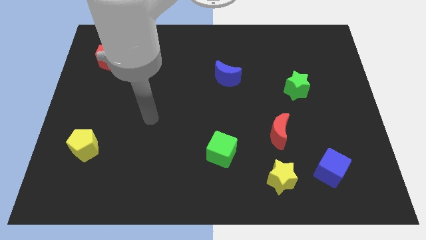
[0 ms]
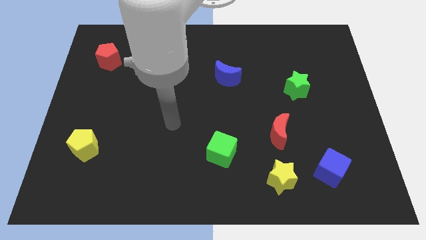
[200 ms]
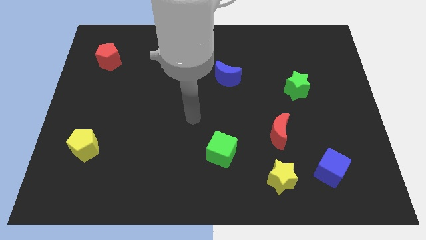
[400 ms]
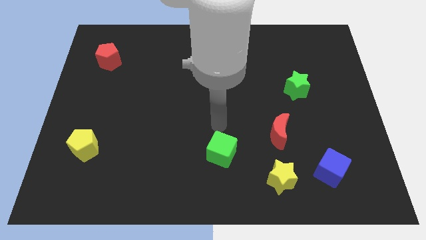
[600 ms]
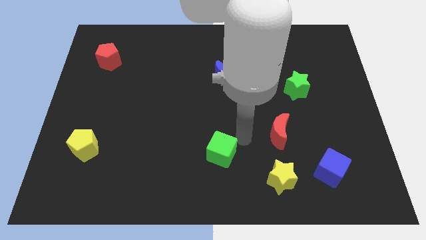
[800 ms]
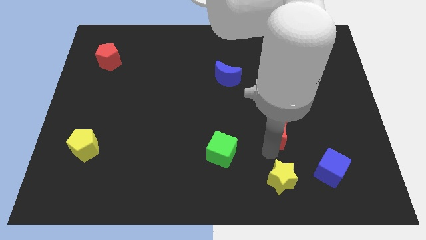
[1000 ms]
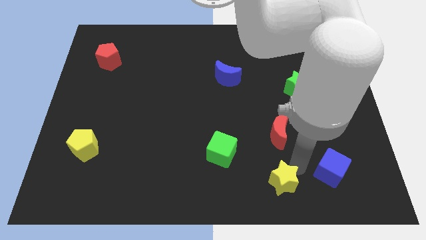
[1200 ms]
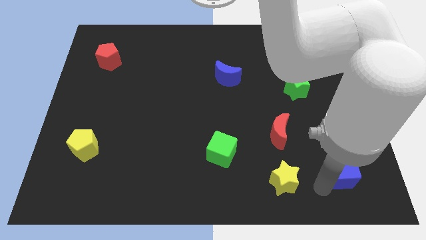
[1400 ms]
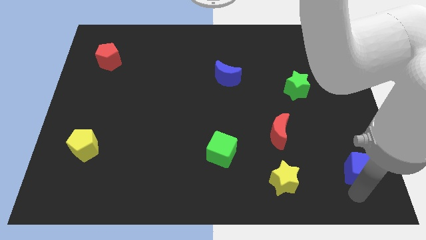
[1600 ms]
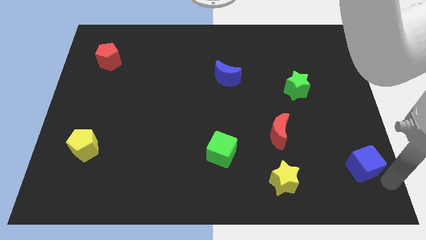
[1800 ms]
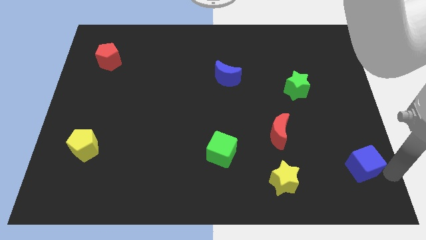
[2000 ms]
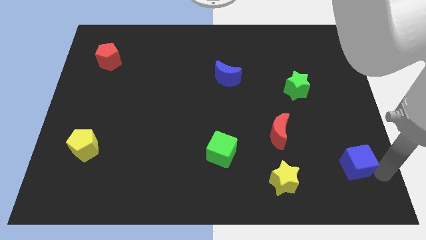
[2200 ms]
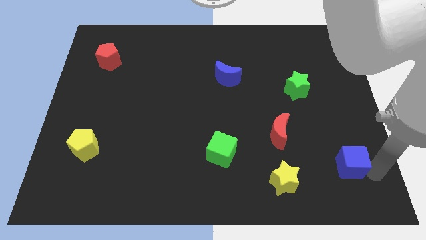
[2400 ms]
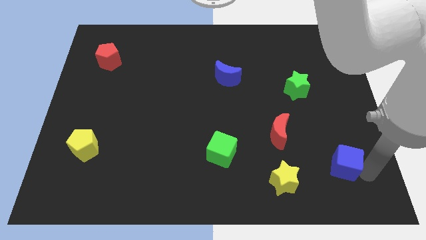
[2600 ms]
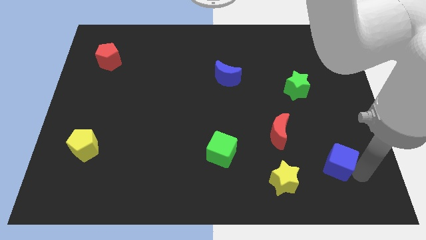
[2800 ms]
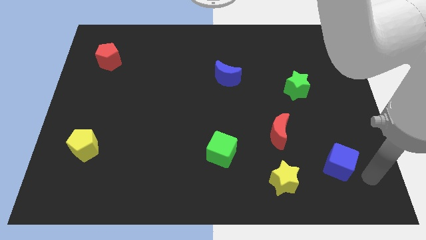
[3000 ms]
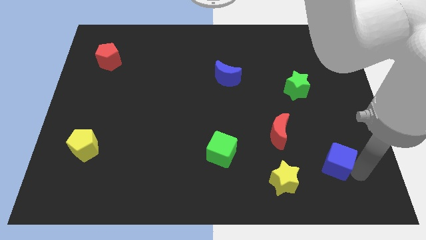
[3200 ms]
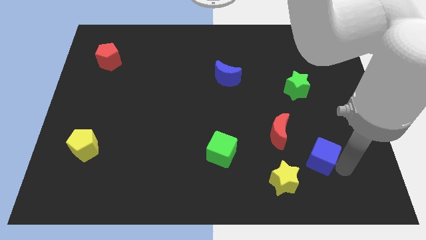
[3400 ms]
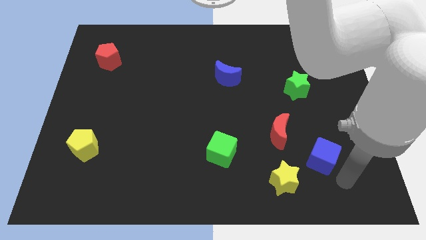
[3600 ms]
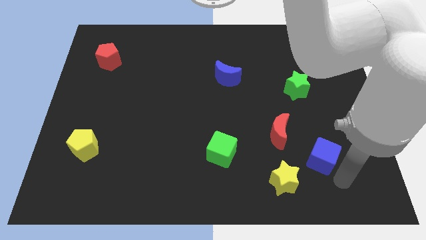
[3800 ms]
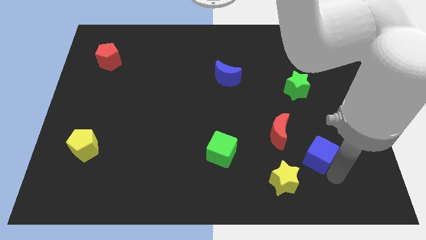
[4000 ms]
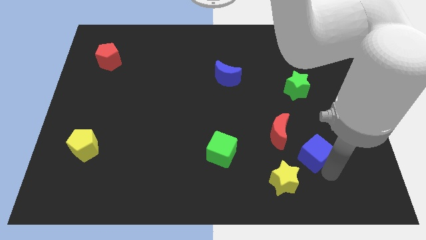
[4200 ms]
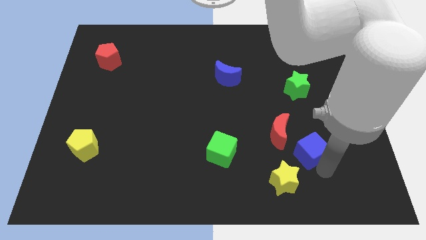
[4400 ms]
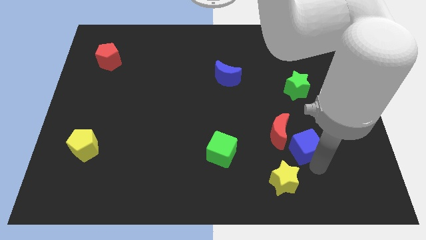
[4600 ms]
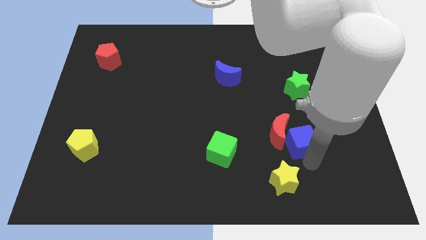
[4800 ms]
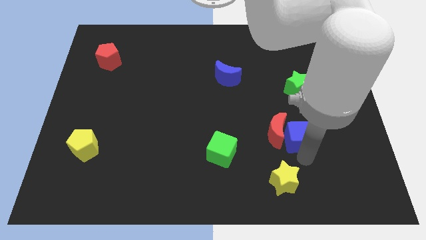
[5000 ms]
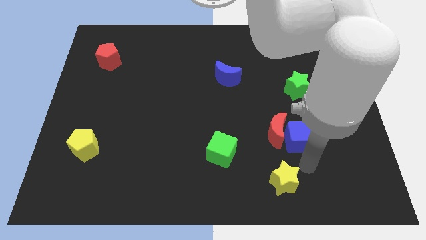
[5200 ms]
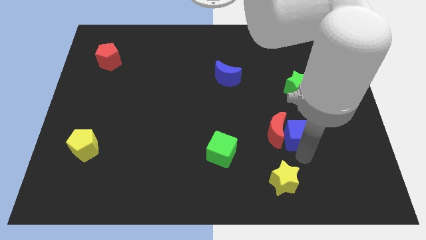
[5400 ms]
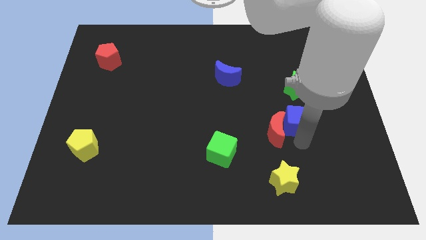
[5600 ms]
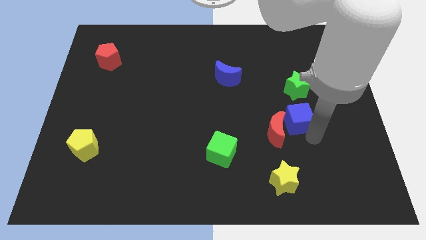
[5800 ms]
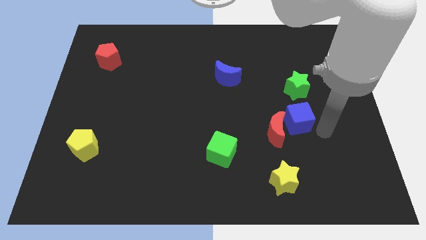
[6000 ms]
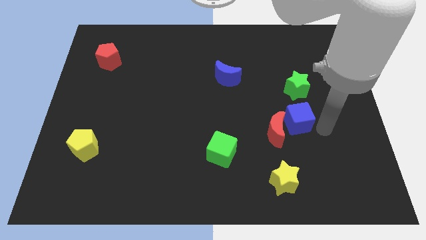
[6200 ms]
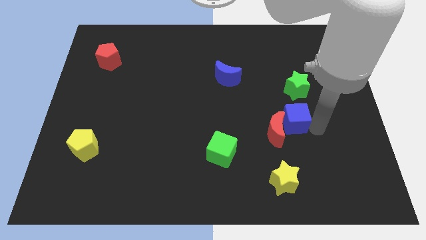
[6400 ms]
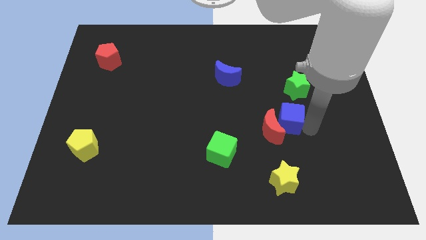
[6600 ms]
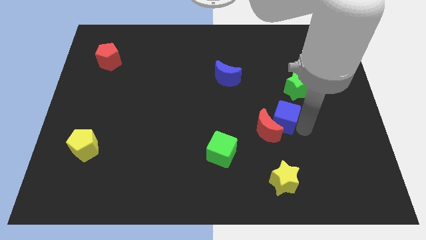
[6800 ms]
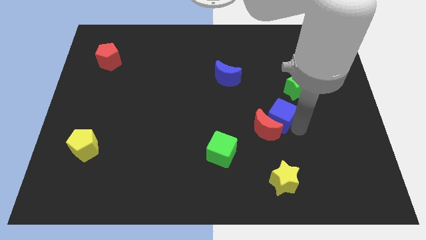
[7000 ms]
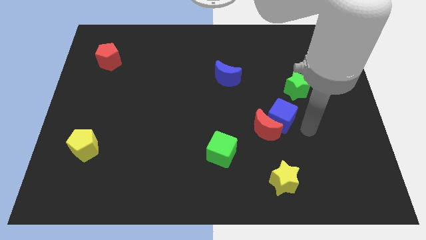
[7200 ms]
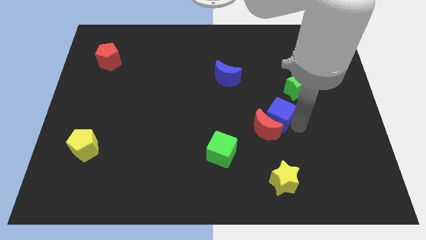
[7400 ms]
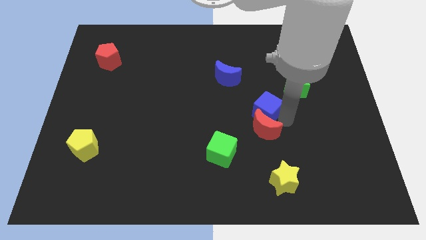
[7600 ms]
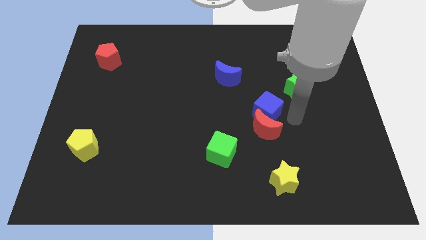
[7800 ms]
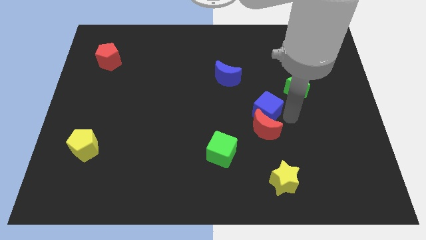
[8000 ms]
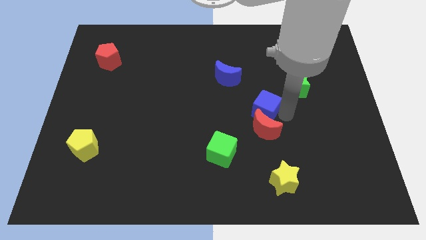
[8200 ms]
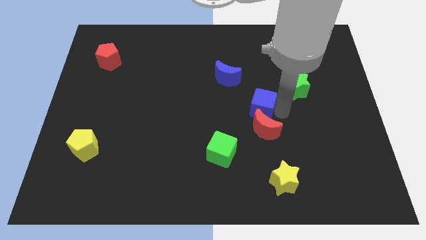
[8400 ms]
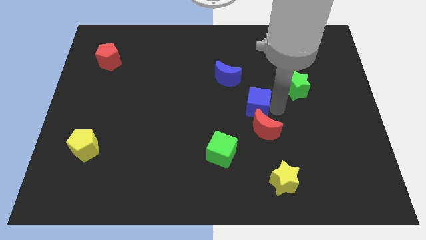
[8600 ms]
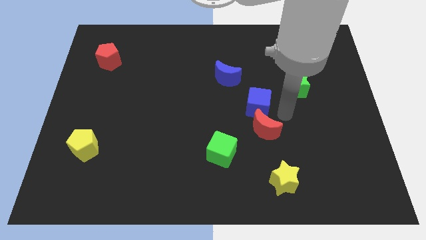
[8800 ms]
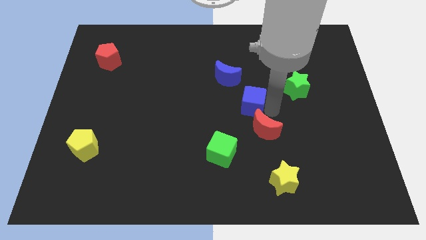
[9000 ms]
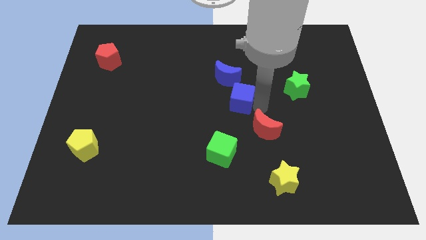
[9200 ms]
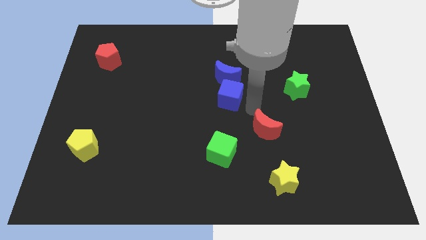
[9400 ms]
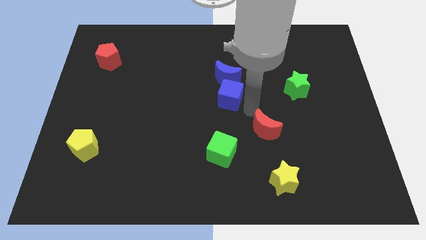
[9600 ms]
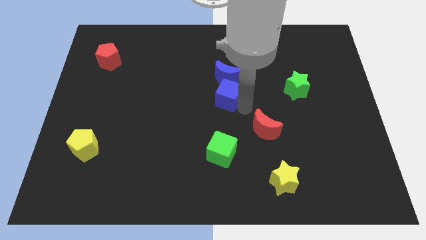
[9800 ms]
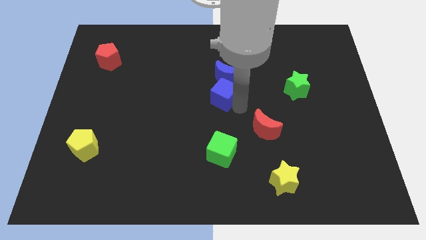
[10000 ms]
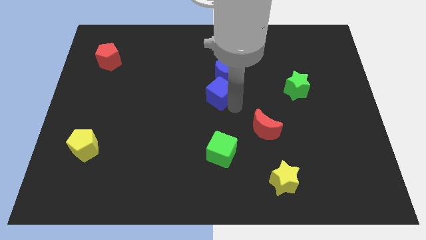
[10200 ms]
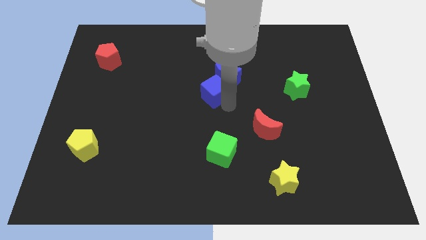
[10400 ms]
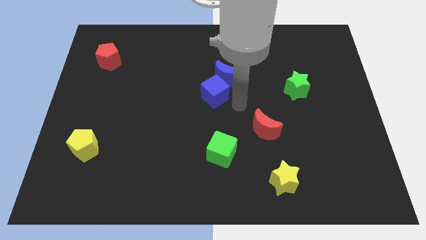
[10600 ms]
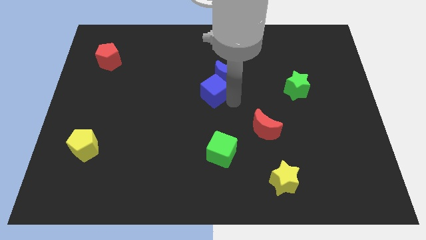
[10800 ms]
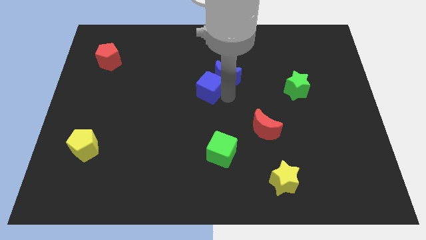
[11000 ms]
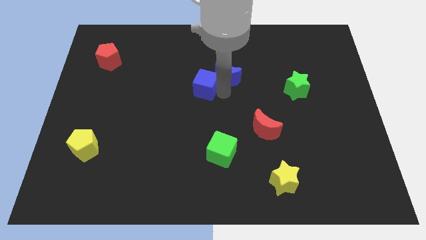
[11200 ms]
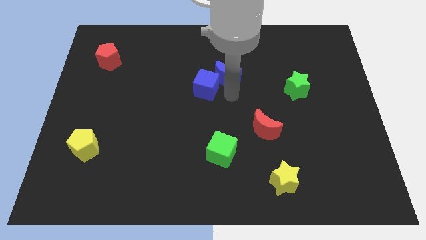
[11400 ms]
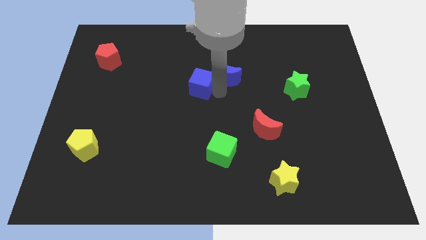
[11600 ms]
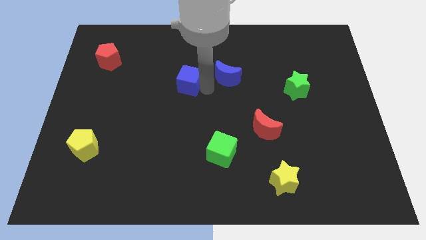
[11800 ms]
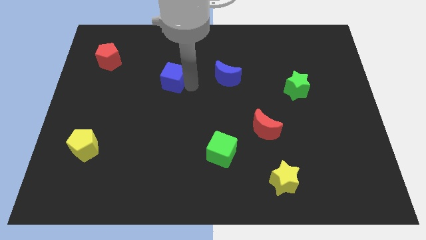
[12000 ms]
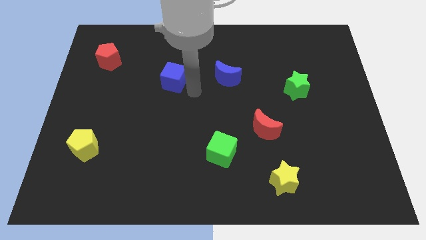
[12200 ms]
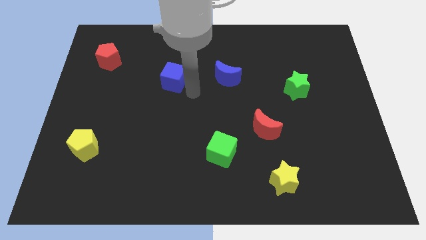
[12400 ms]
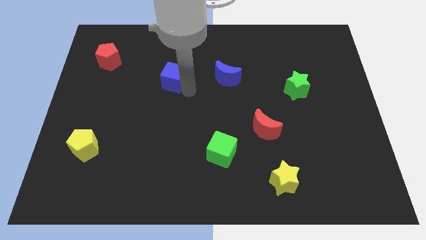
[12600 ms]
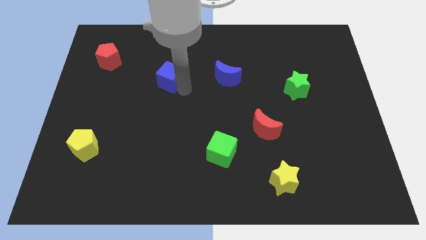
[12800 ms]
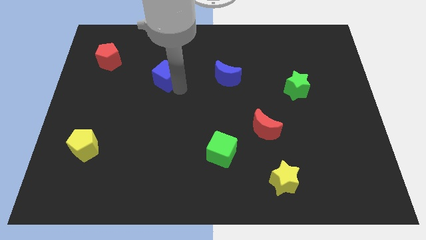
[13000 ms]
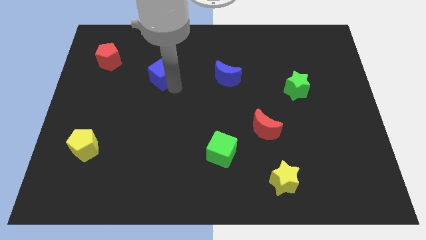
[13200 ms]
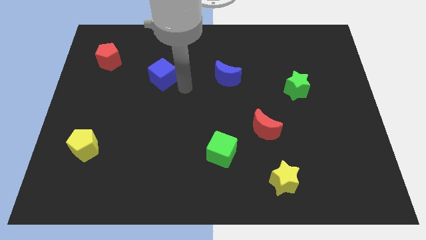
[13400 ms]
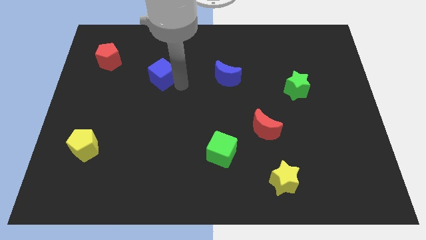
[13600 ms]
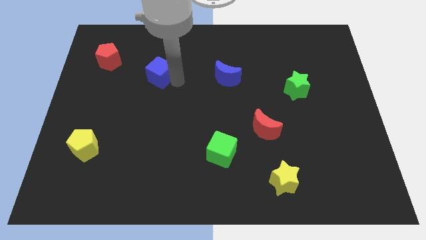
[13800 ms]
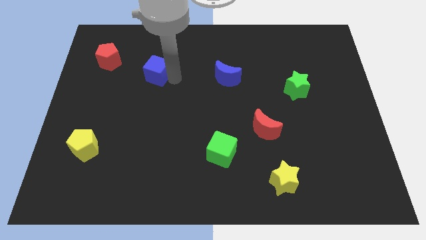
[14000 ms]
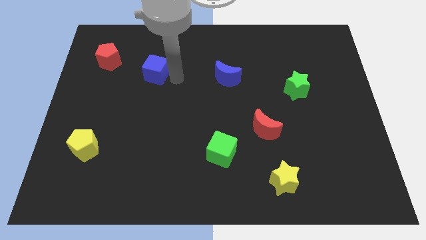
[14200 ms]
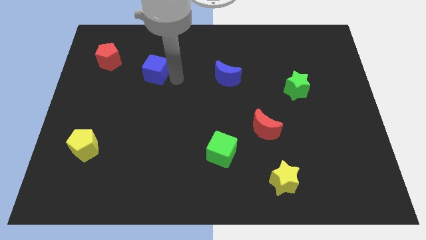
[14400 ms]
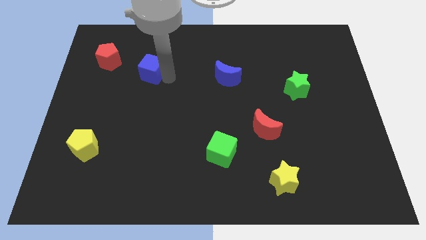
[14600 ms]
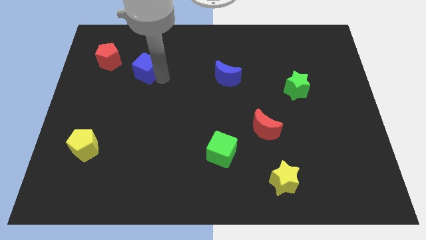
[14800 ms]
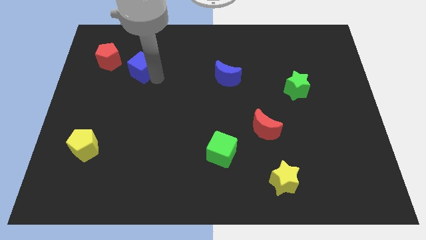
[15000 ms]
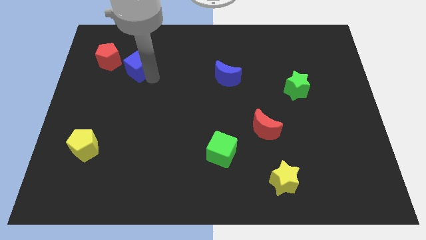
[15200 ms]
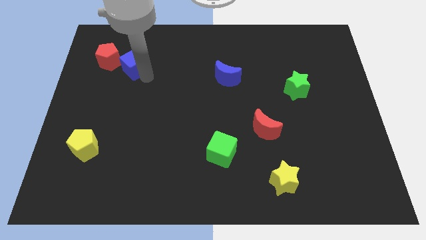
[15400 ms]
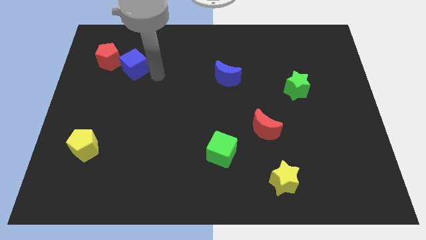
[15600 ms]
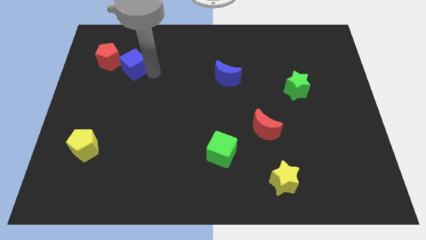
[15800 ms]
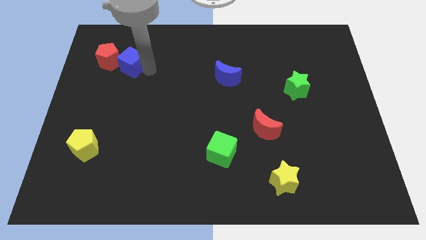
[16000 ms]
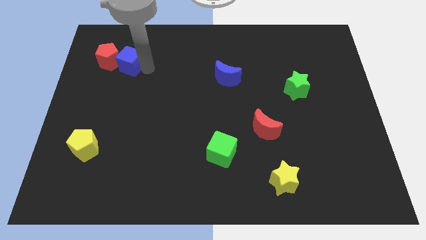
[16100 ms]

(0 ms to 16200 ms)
slide the blue cube to the red pentagon
